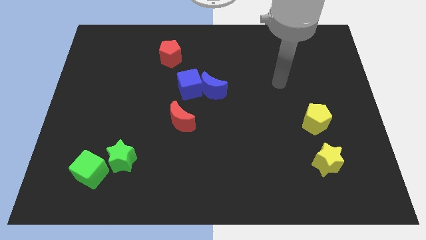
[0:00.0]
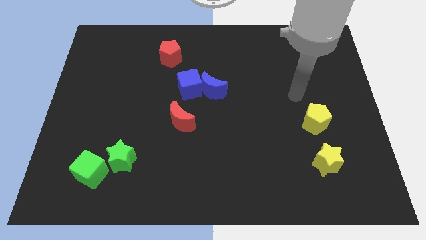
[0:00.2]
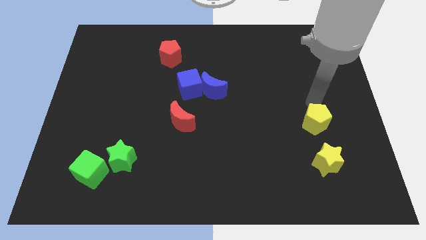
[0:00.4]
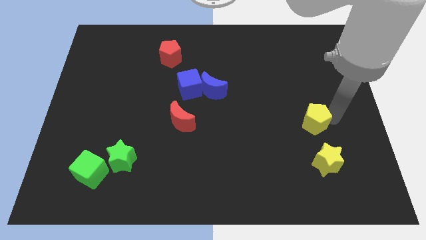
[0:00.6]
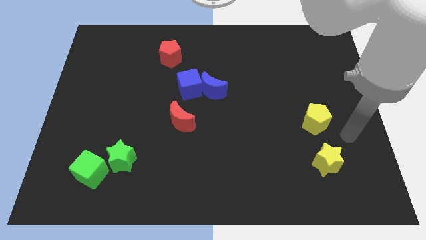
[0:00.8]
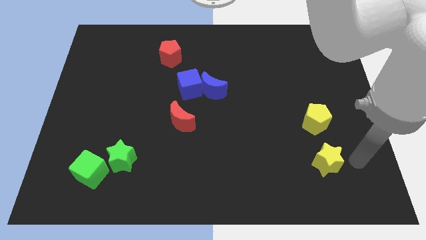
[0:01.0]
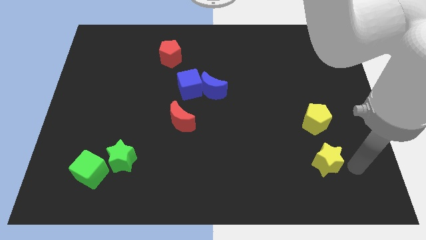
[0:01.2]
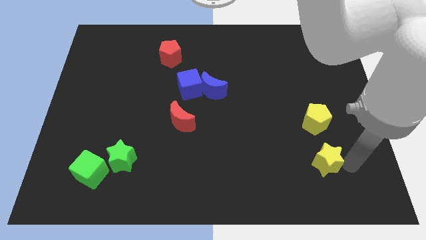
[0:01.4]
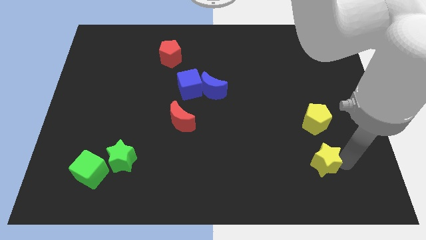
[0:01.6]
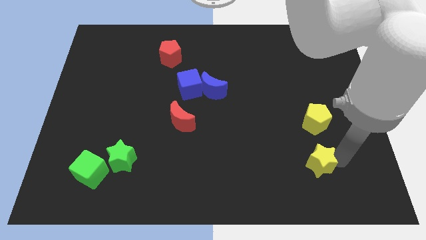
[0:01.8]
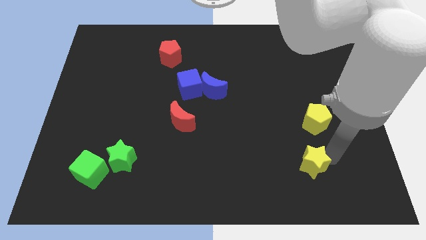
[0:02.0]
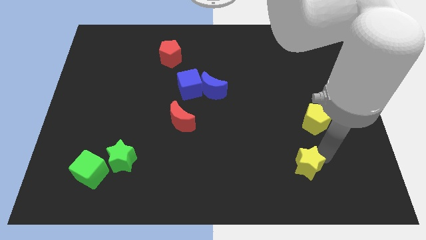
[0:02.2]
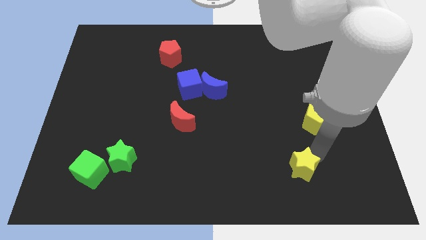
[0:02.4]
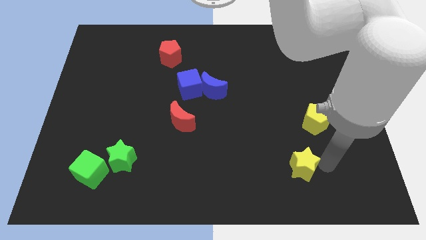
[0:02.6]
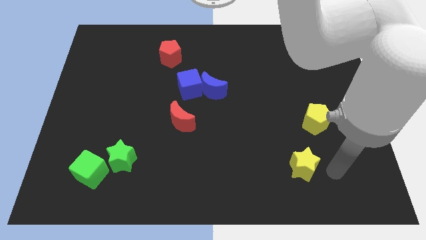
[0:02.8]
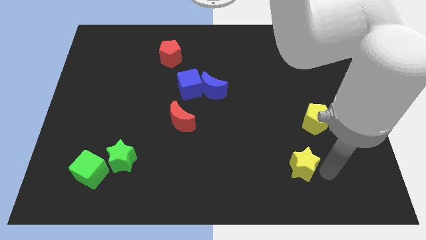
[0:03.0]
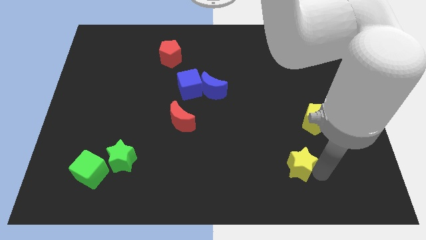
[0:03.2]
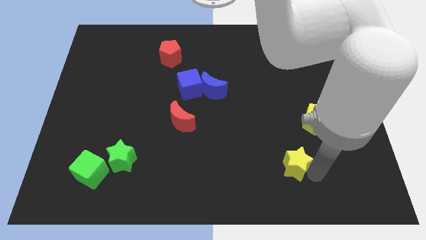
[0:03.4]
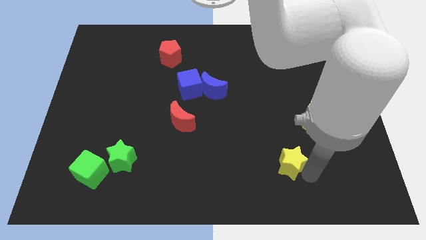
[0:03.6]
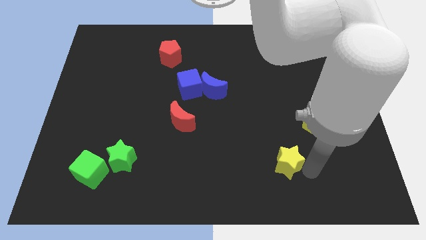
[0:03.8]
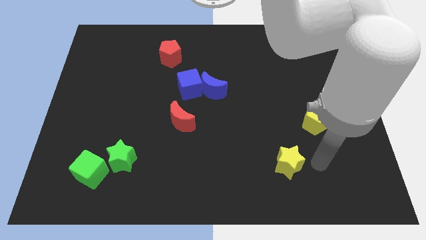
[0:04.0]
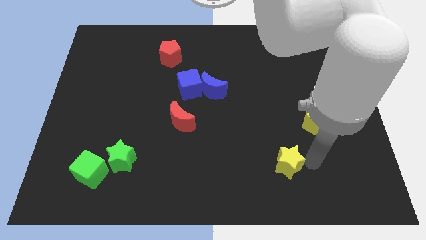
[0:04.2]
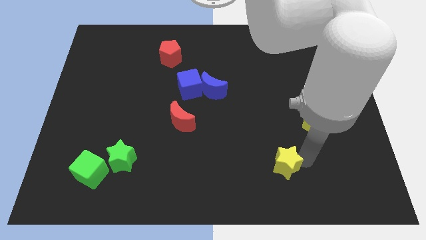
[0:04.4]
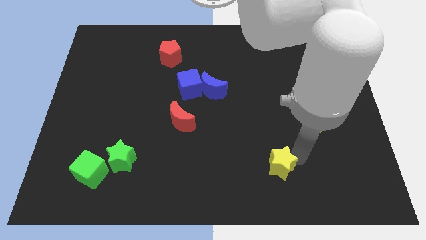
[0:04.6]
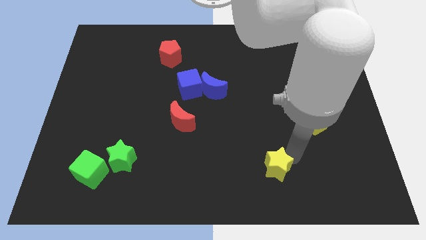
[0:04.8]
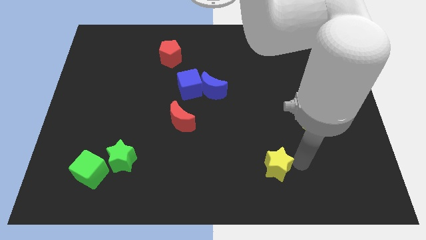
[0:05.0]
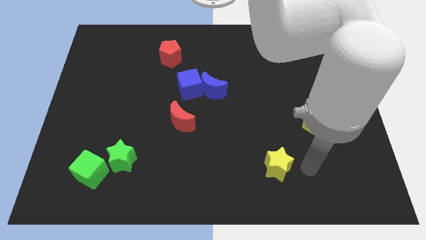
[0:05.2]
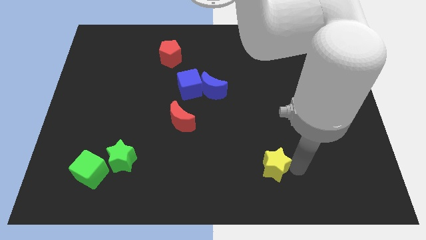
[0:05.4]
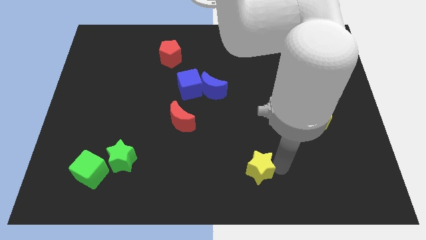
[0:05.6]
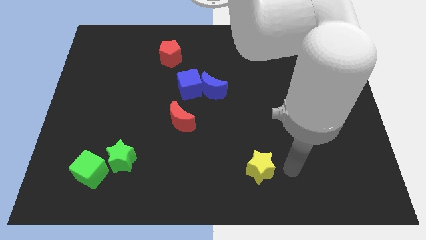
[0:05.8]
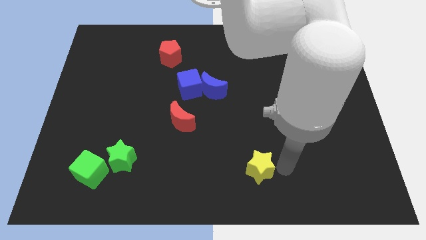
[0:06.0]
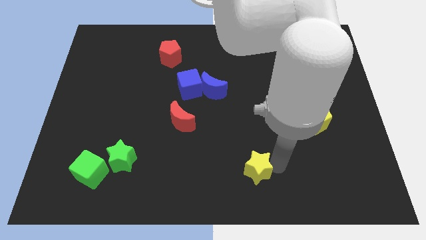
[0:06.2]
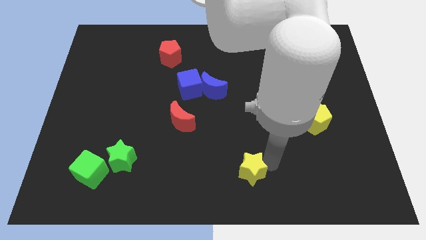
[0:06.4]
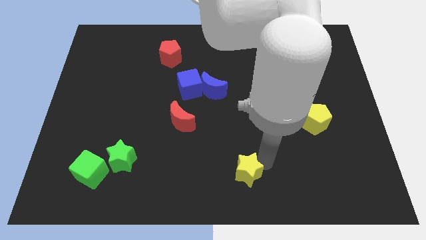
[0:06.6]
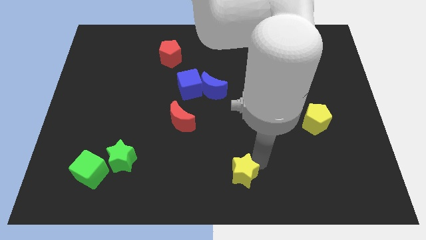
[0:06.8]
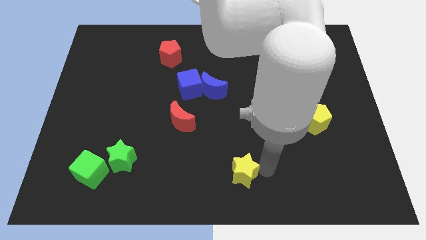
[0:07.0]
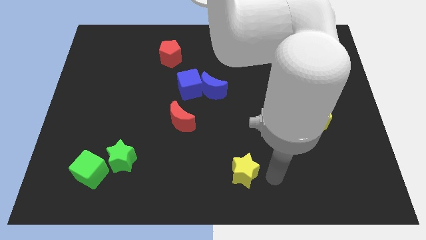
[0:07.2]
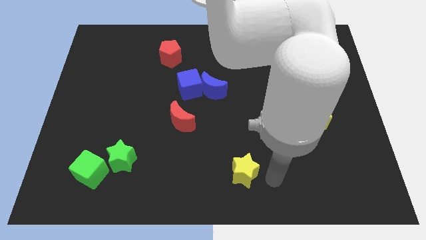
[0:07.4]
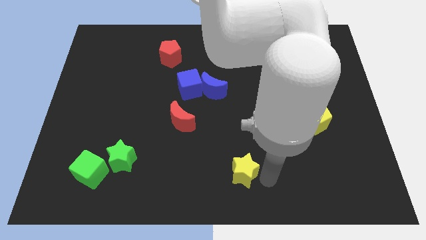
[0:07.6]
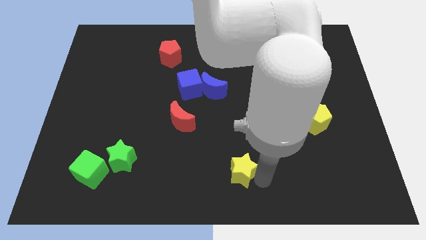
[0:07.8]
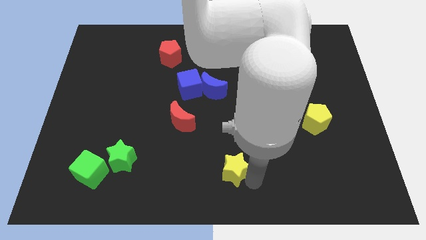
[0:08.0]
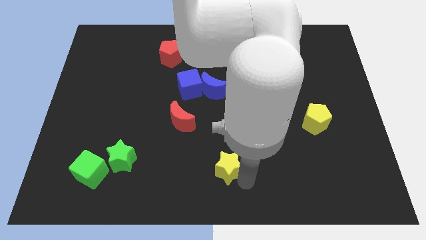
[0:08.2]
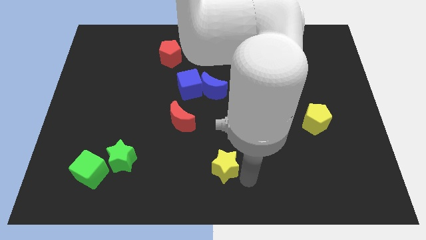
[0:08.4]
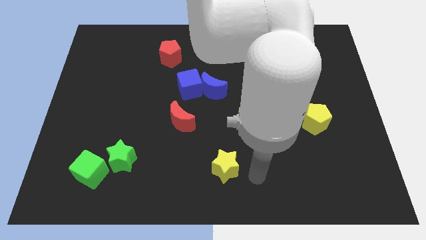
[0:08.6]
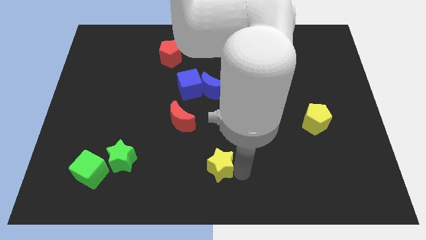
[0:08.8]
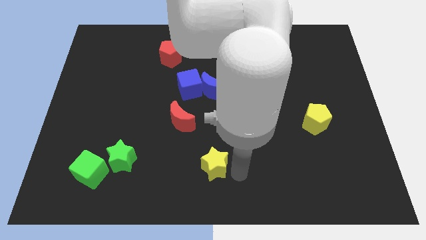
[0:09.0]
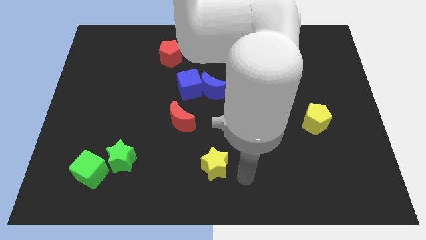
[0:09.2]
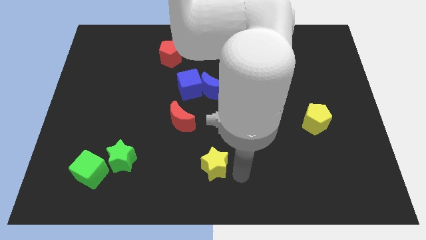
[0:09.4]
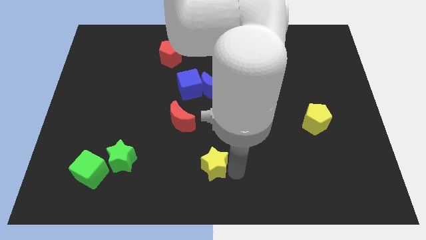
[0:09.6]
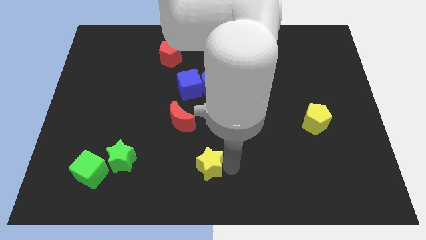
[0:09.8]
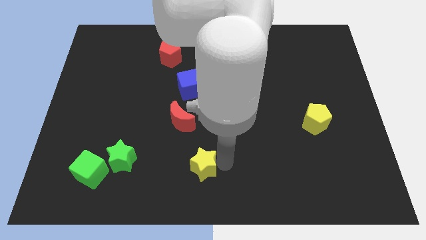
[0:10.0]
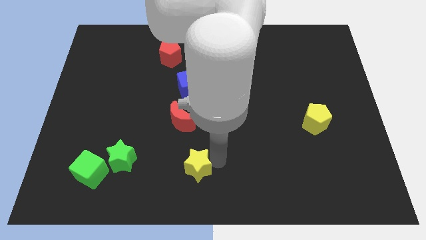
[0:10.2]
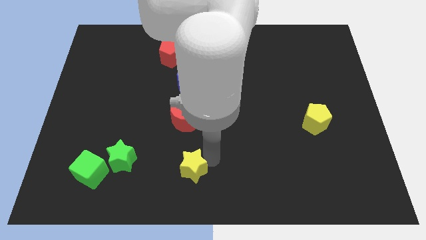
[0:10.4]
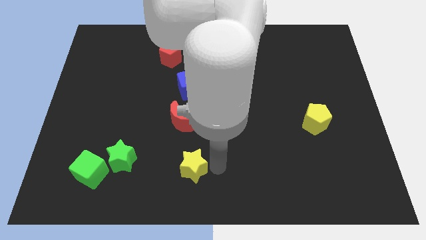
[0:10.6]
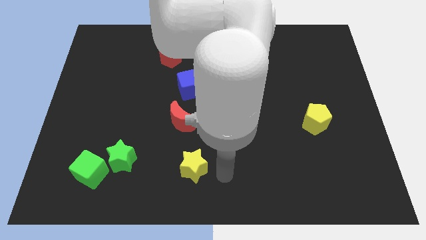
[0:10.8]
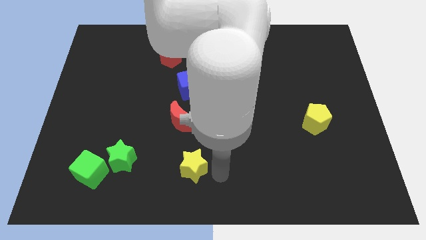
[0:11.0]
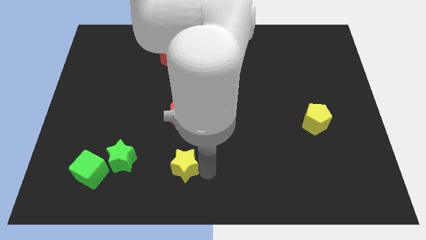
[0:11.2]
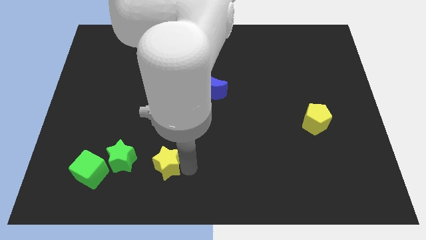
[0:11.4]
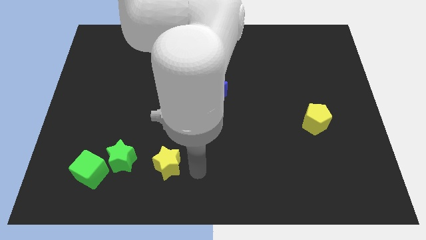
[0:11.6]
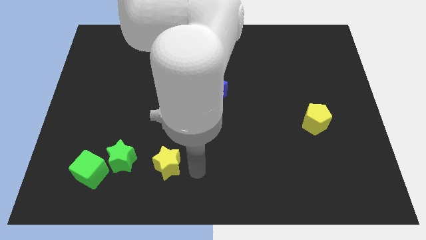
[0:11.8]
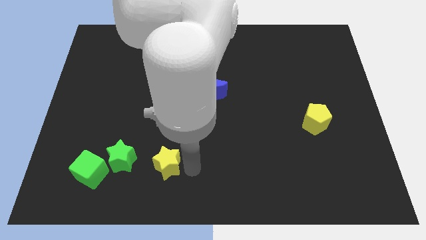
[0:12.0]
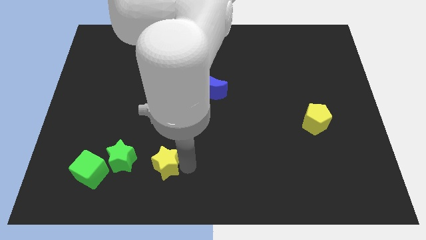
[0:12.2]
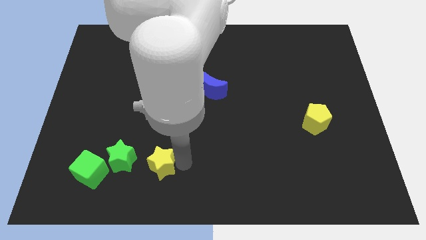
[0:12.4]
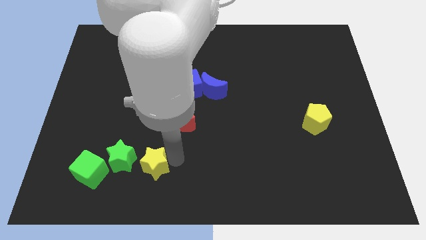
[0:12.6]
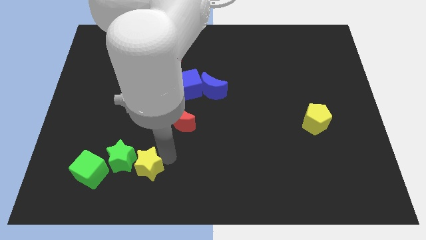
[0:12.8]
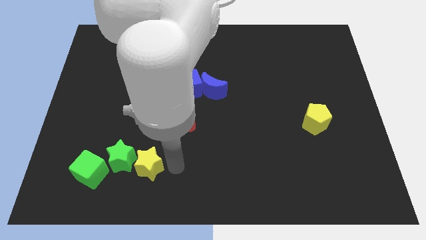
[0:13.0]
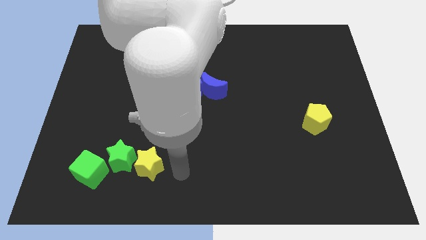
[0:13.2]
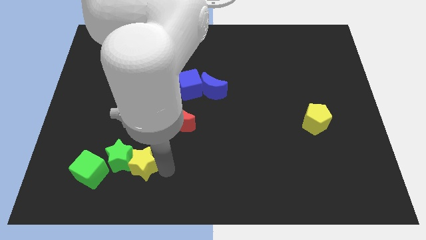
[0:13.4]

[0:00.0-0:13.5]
put the yellow star close to the green star

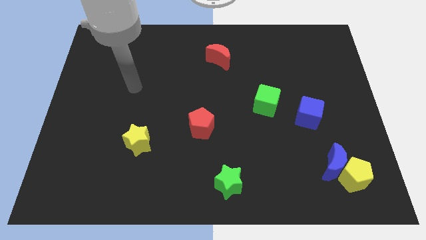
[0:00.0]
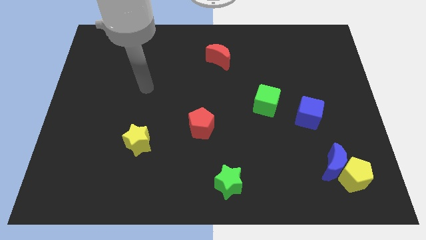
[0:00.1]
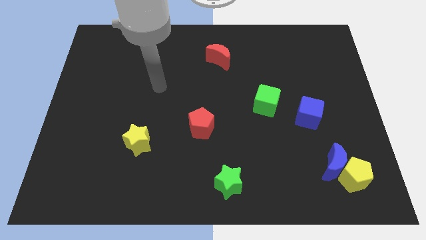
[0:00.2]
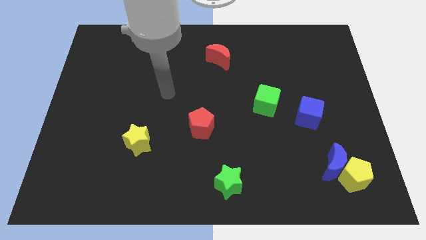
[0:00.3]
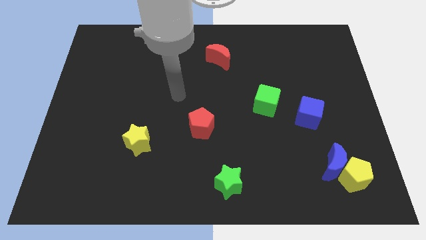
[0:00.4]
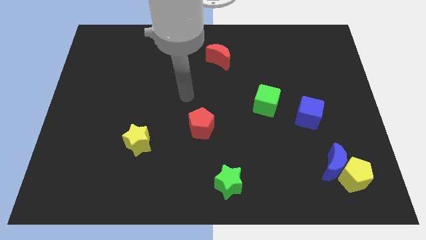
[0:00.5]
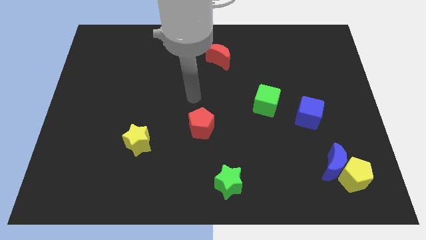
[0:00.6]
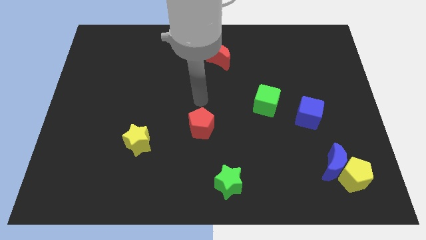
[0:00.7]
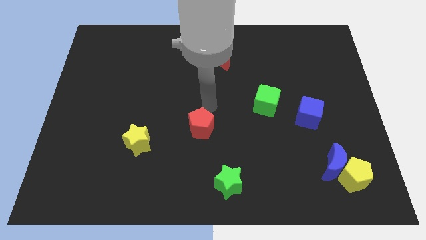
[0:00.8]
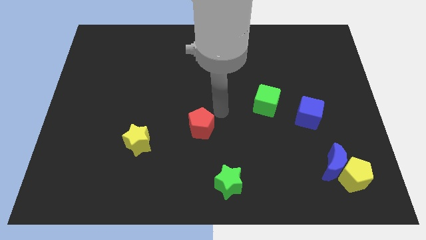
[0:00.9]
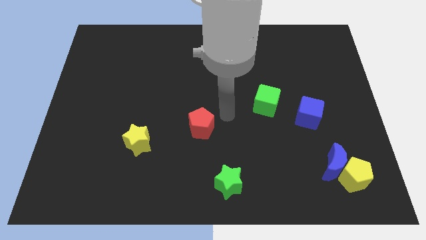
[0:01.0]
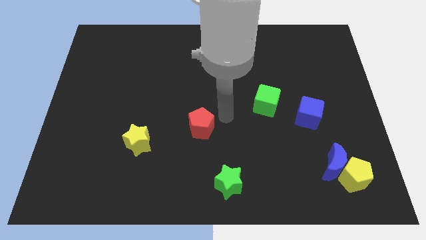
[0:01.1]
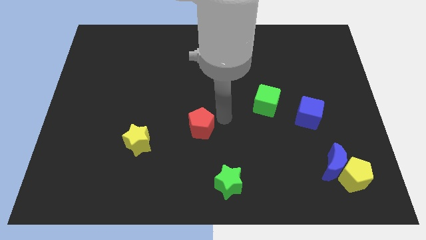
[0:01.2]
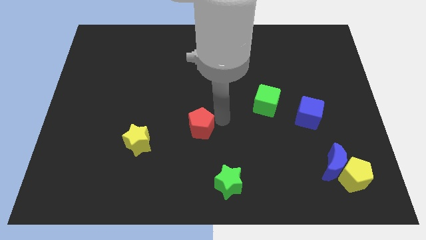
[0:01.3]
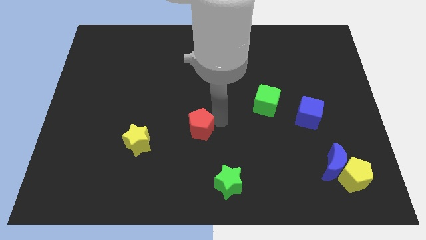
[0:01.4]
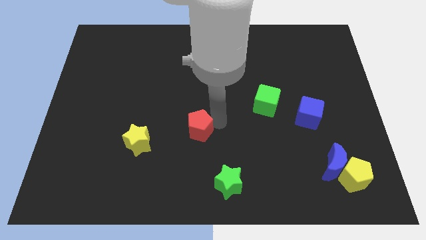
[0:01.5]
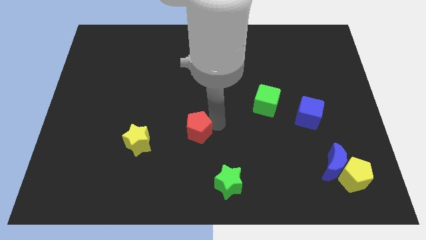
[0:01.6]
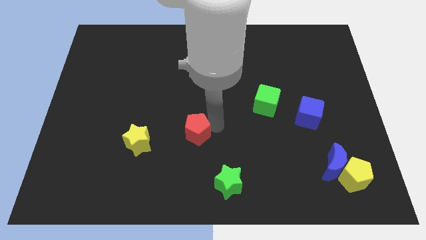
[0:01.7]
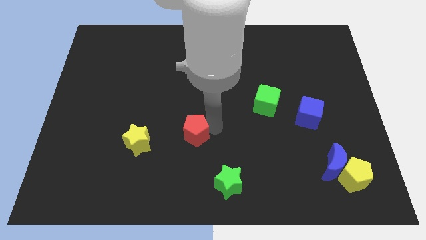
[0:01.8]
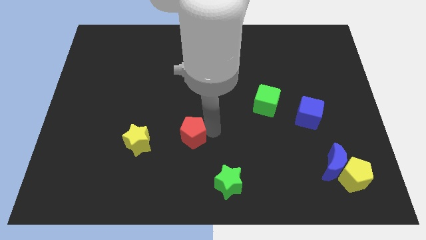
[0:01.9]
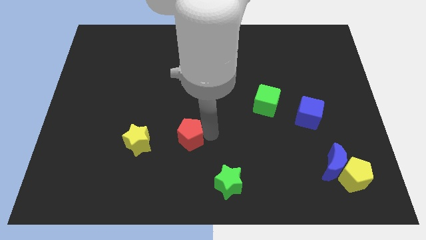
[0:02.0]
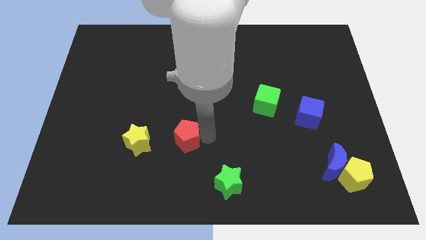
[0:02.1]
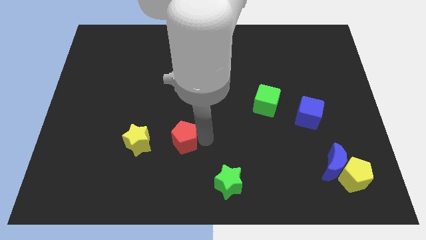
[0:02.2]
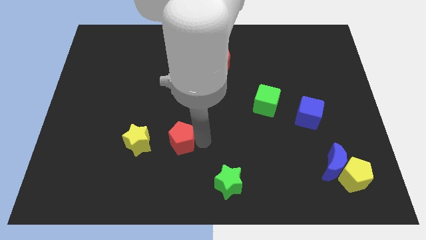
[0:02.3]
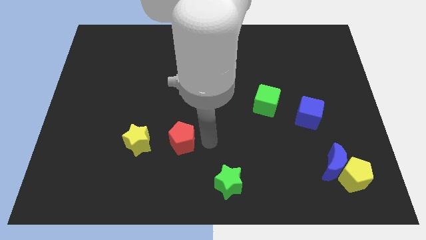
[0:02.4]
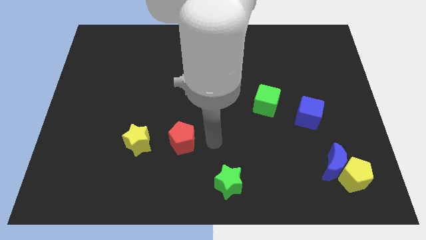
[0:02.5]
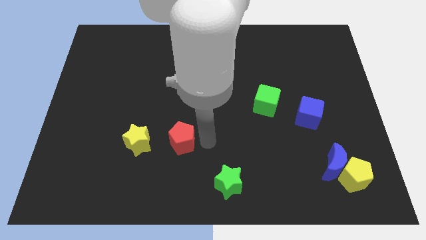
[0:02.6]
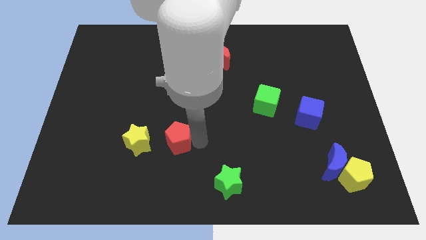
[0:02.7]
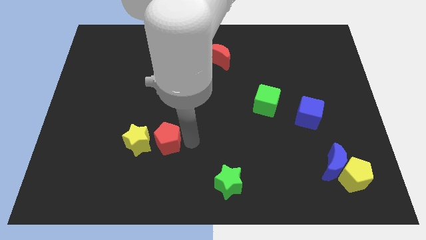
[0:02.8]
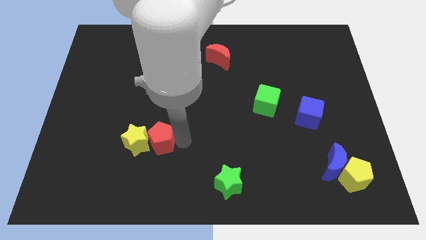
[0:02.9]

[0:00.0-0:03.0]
move the red pentagon to the yellow star
